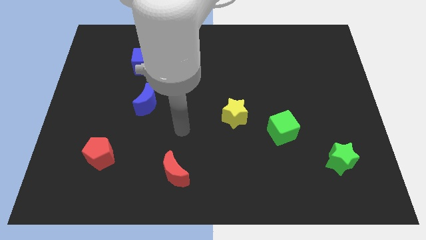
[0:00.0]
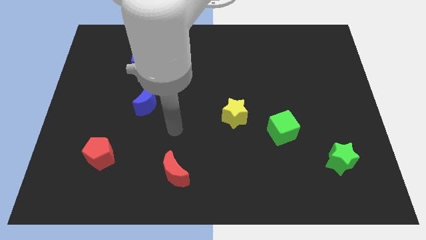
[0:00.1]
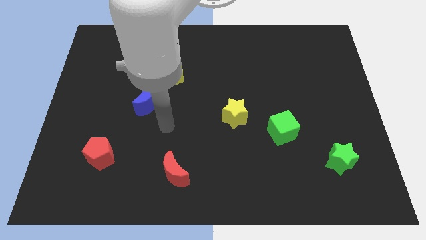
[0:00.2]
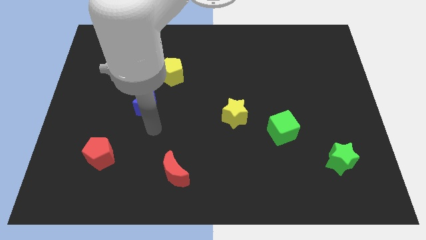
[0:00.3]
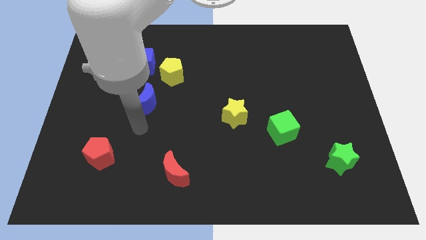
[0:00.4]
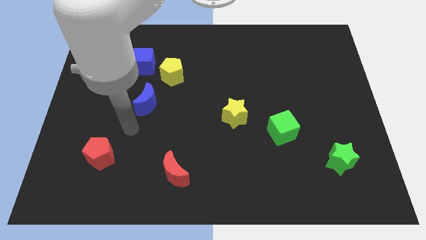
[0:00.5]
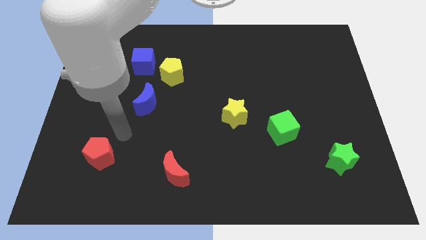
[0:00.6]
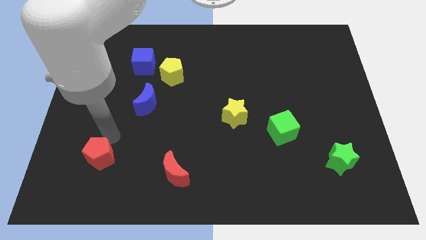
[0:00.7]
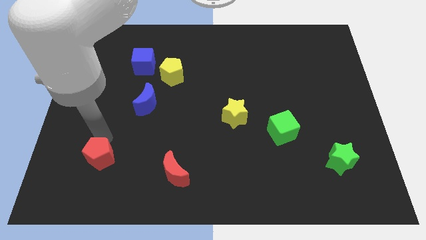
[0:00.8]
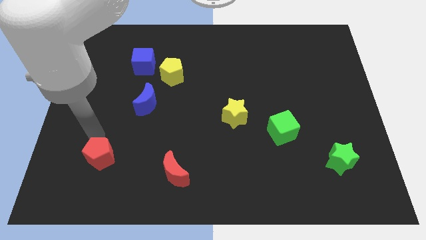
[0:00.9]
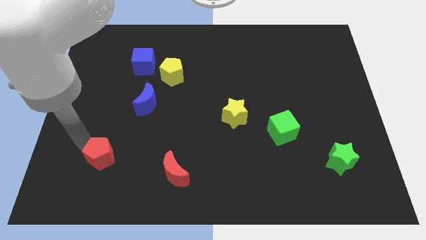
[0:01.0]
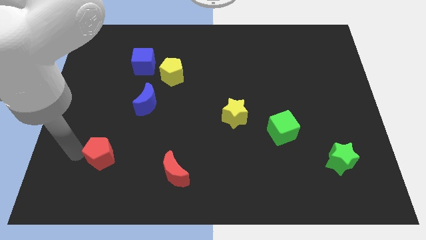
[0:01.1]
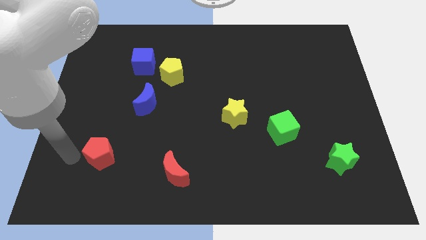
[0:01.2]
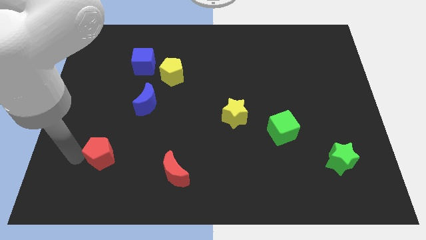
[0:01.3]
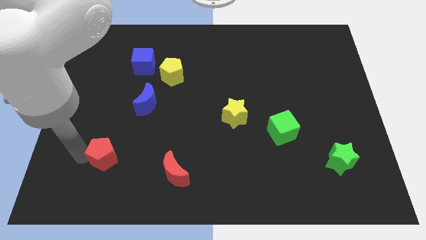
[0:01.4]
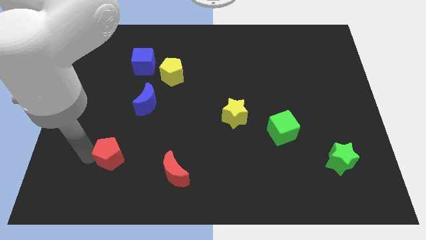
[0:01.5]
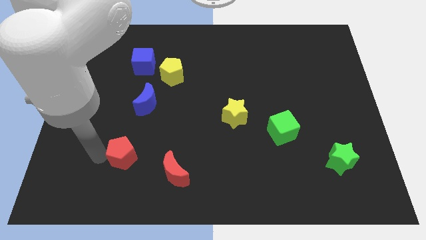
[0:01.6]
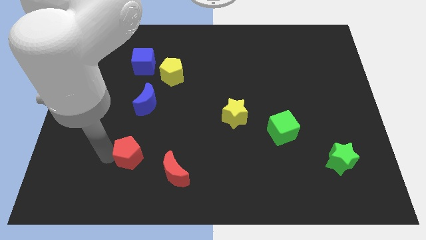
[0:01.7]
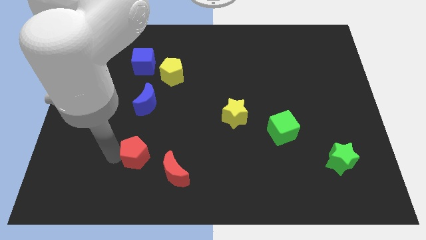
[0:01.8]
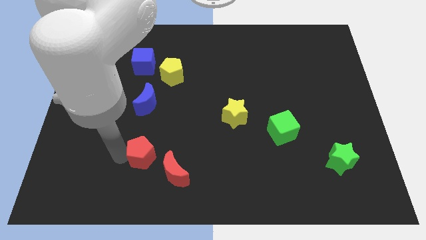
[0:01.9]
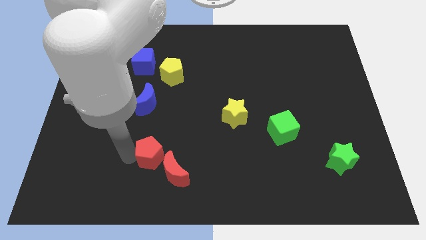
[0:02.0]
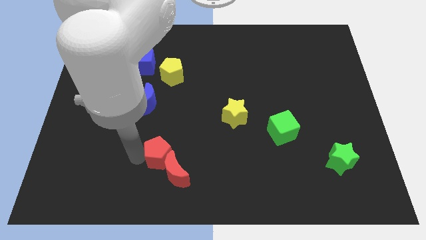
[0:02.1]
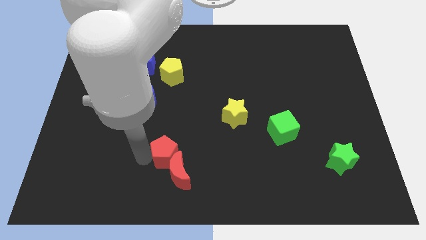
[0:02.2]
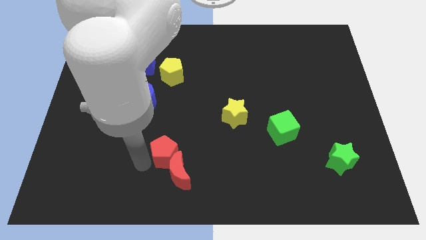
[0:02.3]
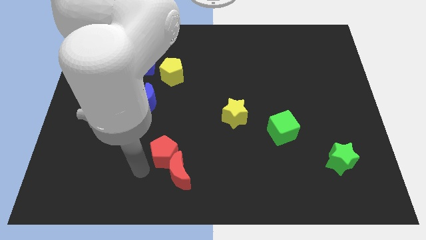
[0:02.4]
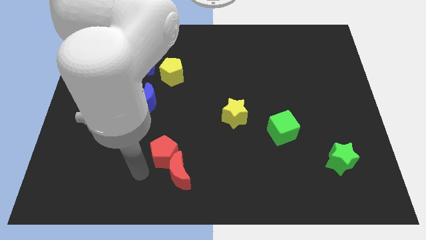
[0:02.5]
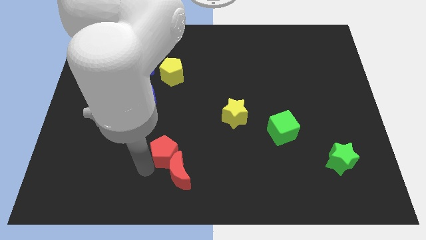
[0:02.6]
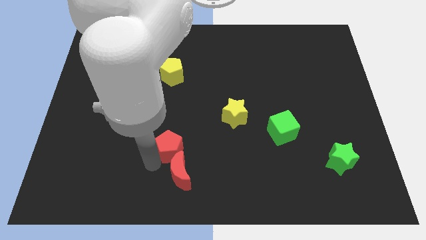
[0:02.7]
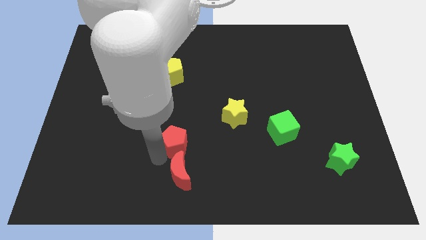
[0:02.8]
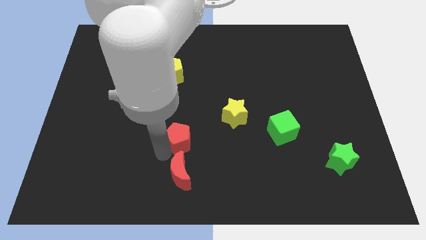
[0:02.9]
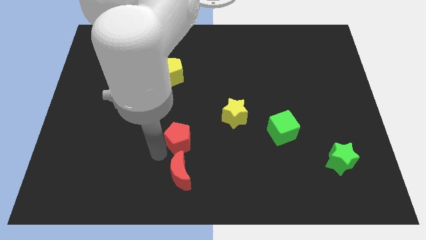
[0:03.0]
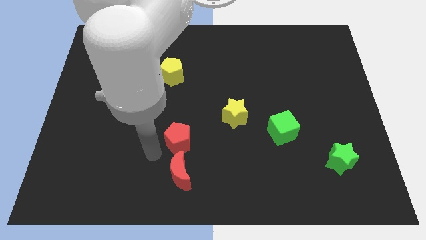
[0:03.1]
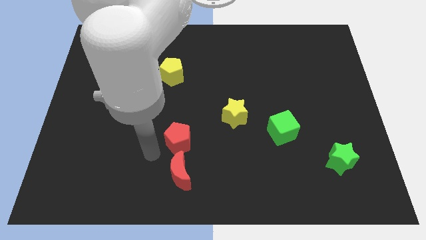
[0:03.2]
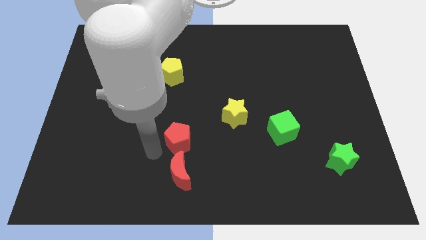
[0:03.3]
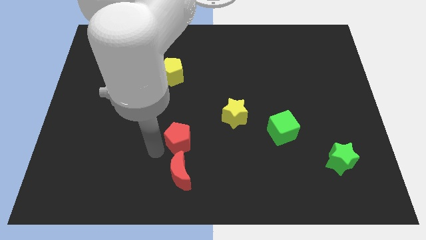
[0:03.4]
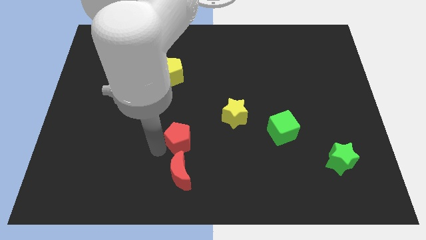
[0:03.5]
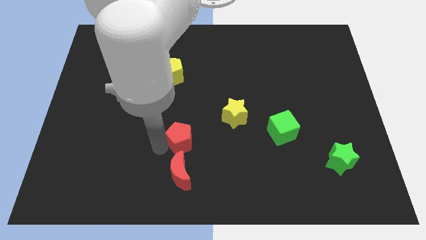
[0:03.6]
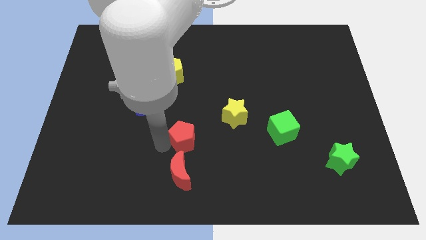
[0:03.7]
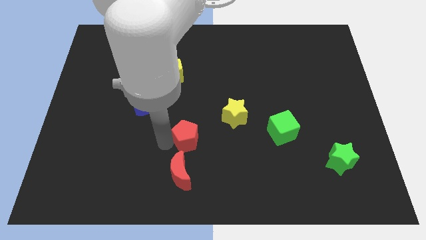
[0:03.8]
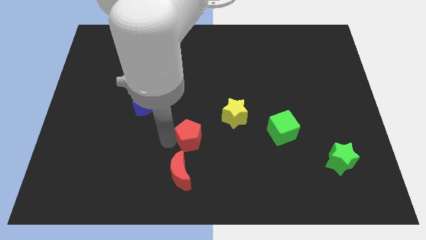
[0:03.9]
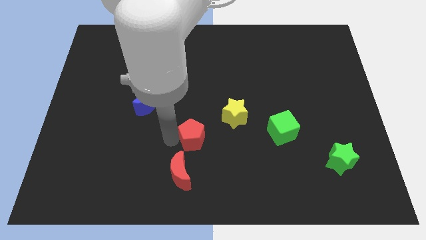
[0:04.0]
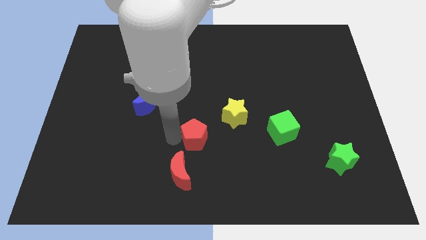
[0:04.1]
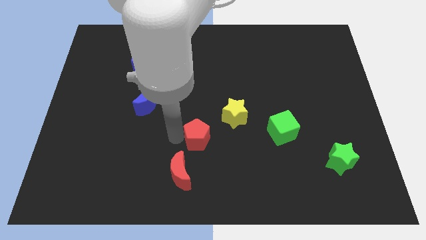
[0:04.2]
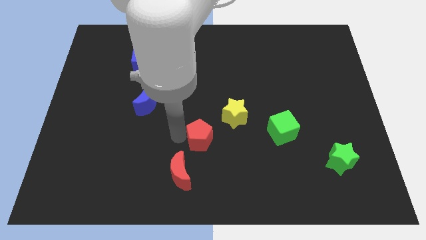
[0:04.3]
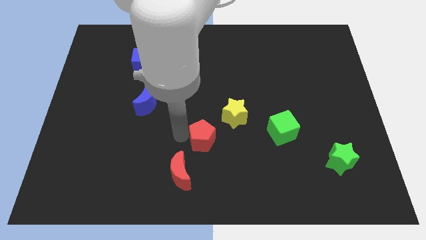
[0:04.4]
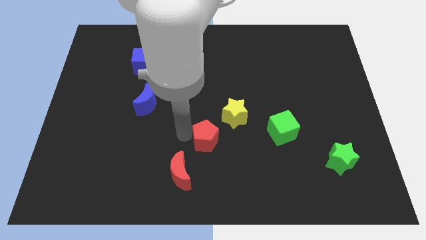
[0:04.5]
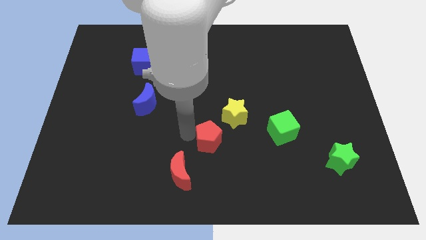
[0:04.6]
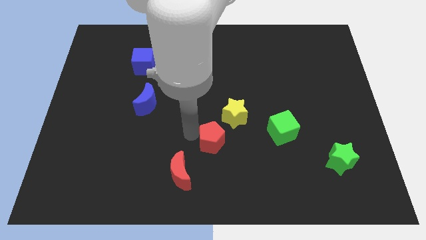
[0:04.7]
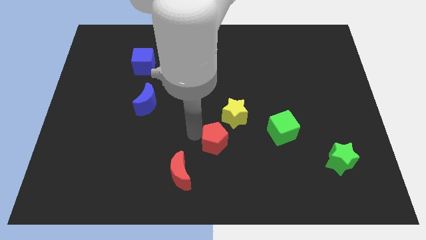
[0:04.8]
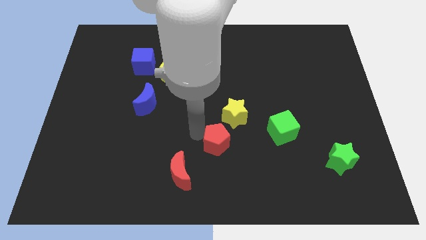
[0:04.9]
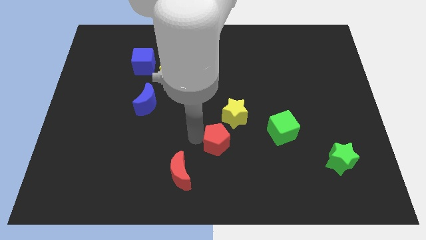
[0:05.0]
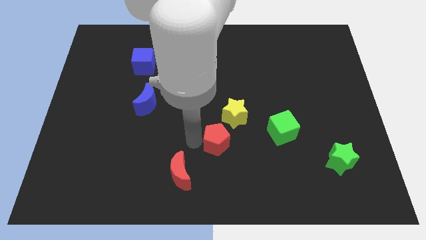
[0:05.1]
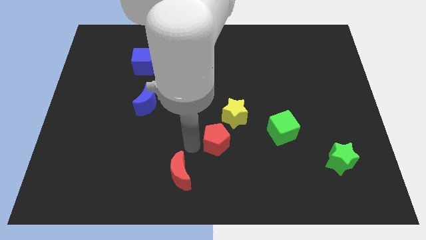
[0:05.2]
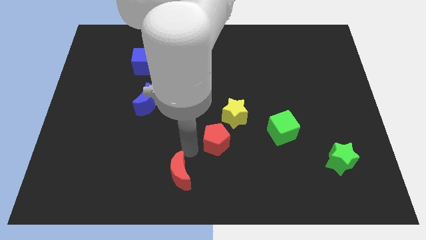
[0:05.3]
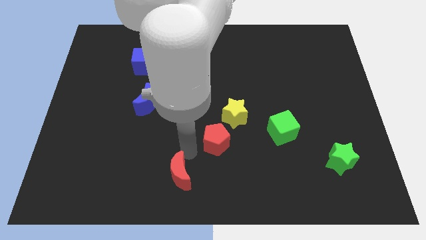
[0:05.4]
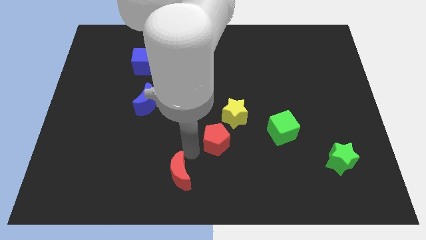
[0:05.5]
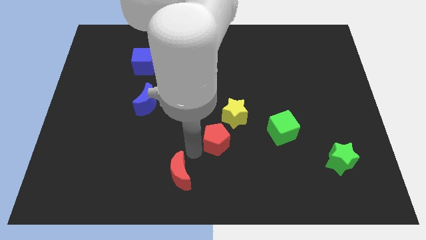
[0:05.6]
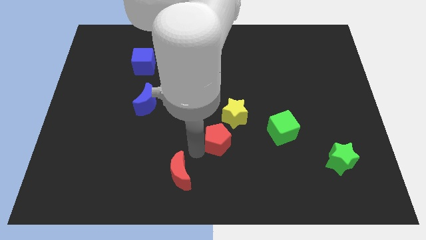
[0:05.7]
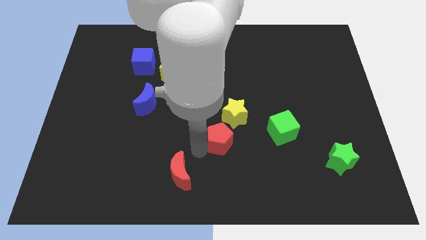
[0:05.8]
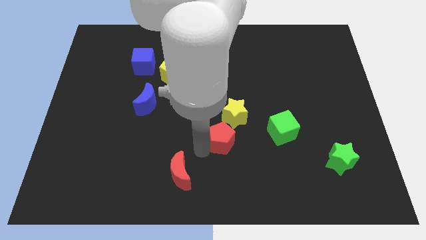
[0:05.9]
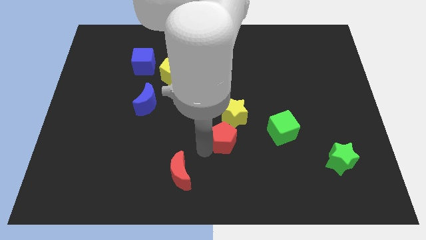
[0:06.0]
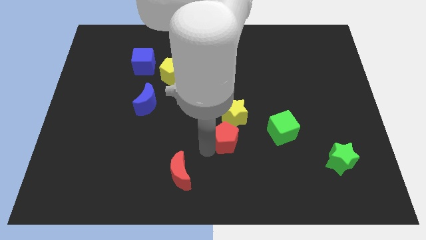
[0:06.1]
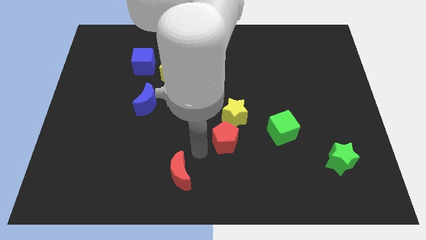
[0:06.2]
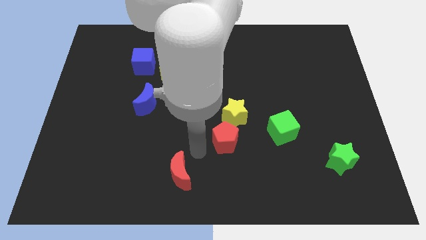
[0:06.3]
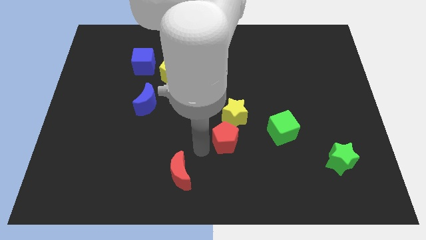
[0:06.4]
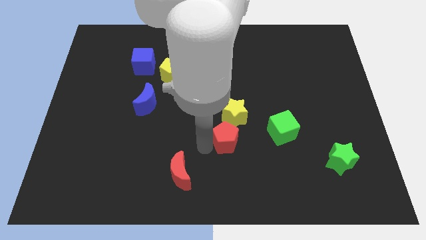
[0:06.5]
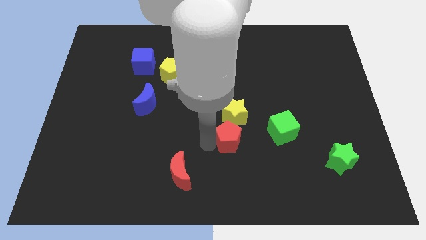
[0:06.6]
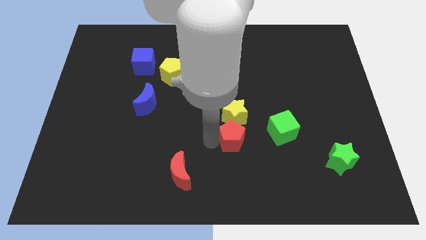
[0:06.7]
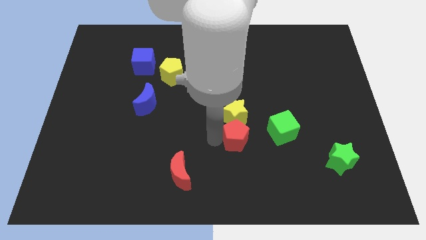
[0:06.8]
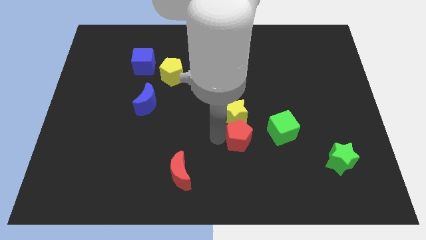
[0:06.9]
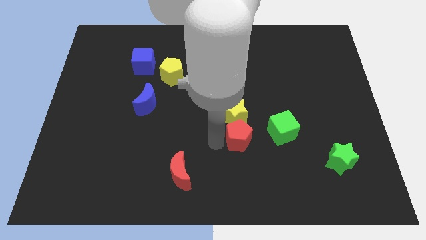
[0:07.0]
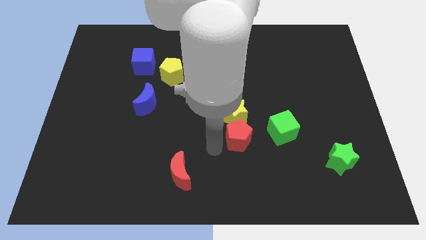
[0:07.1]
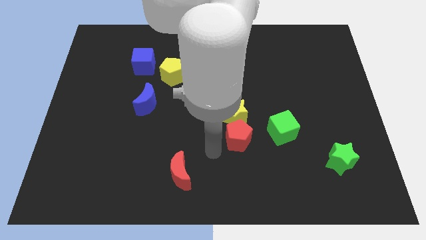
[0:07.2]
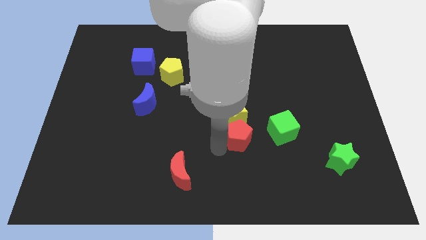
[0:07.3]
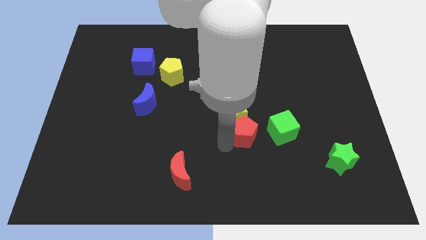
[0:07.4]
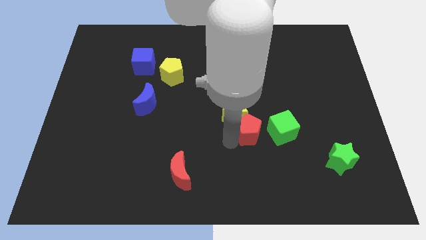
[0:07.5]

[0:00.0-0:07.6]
slide the red pentagon to the right of the yellow star
